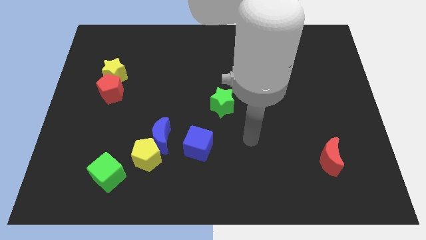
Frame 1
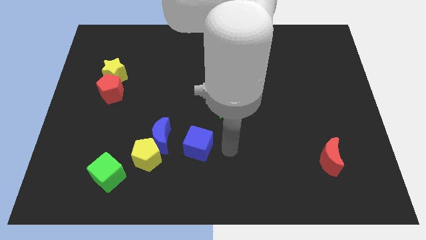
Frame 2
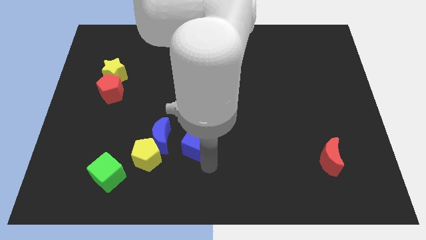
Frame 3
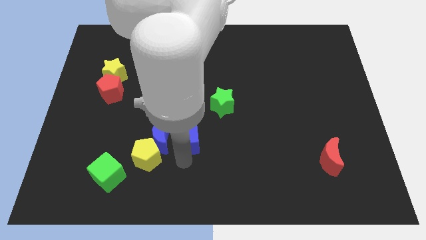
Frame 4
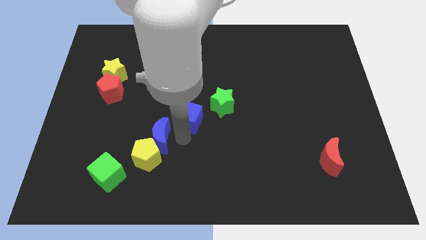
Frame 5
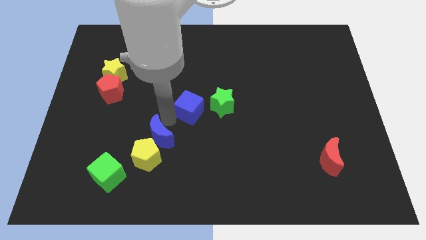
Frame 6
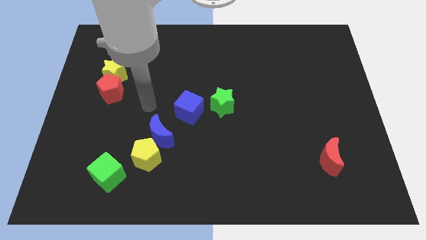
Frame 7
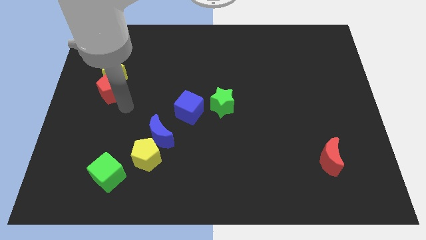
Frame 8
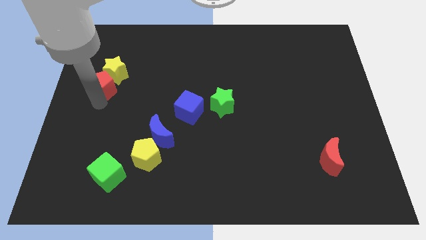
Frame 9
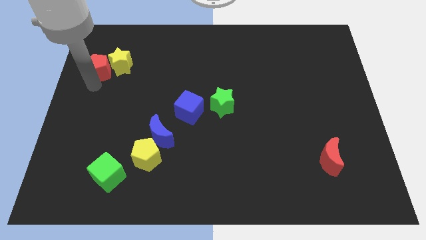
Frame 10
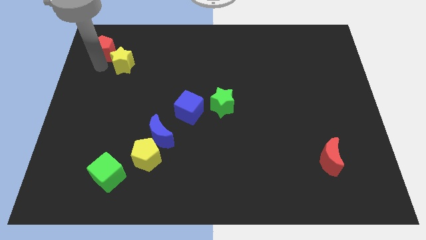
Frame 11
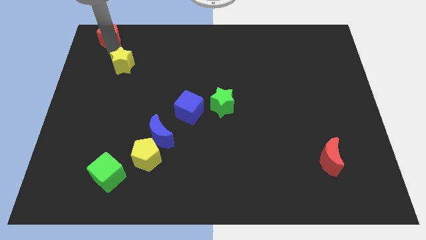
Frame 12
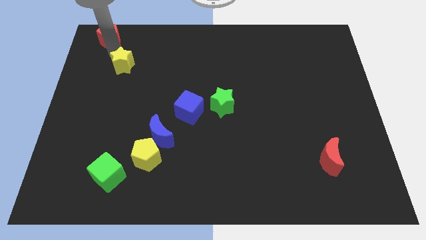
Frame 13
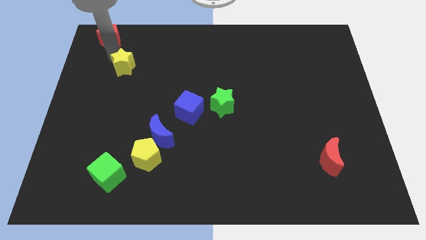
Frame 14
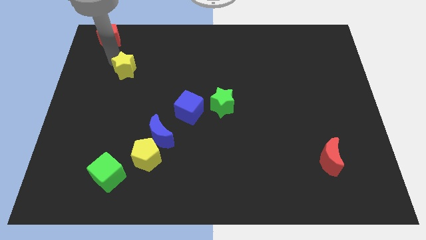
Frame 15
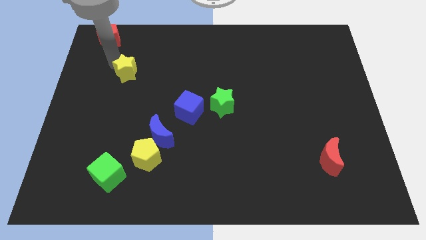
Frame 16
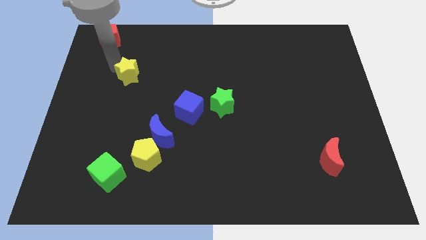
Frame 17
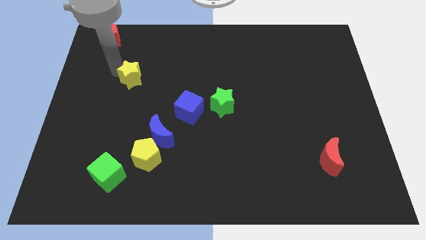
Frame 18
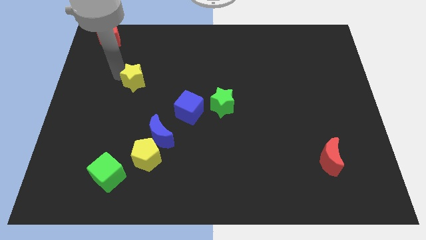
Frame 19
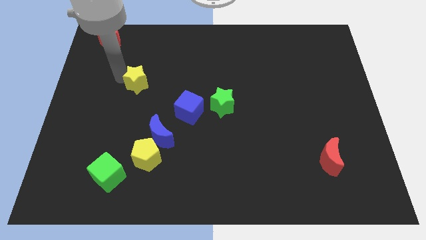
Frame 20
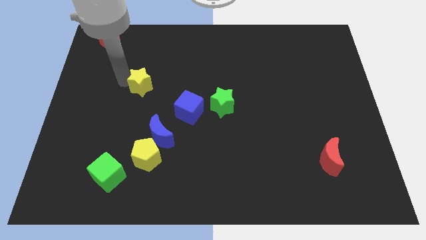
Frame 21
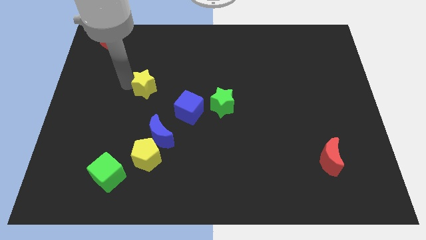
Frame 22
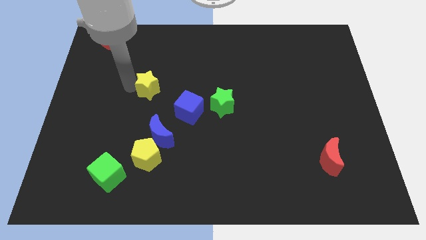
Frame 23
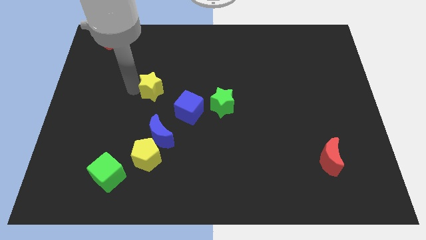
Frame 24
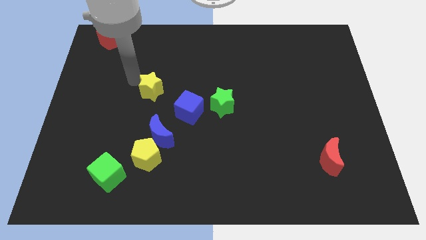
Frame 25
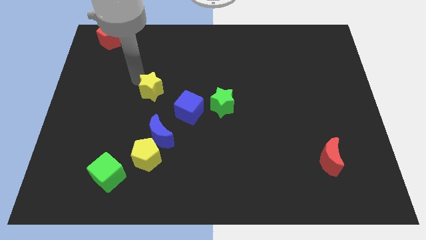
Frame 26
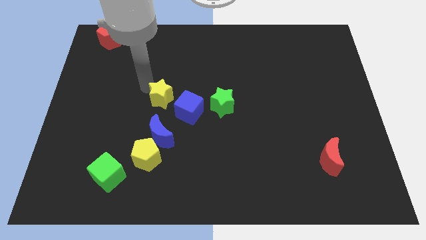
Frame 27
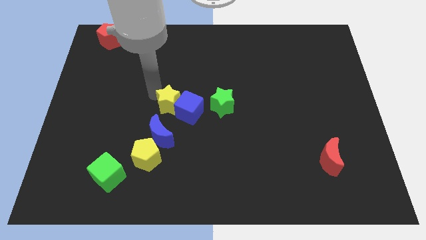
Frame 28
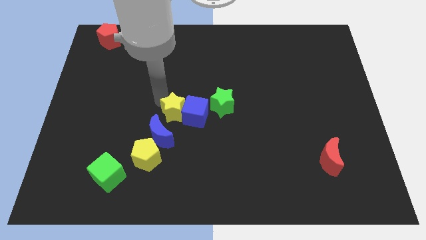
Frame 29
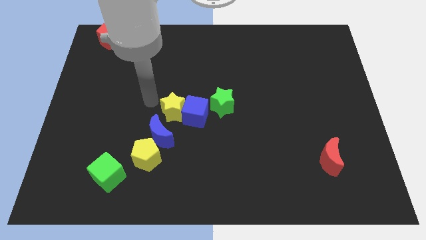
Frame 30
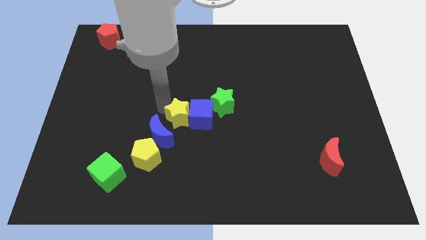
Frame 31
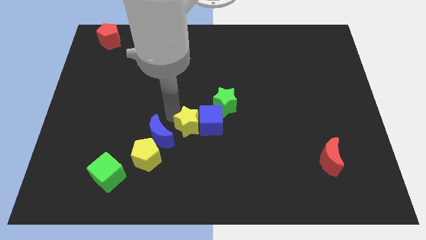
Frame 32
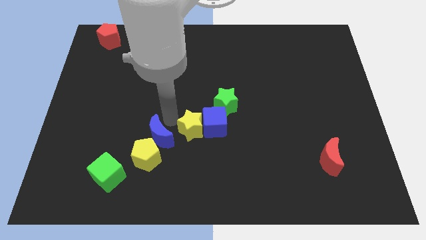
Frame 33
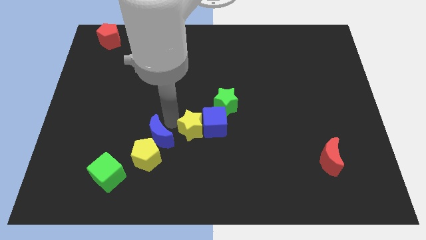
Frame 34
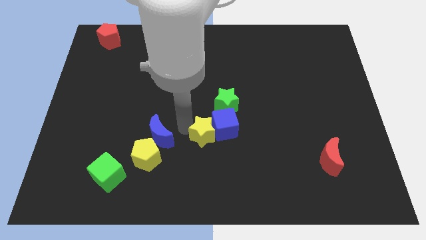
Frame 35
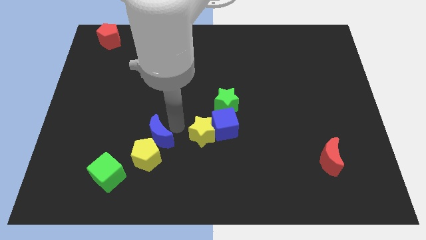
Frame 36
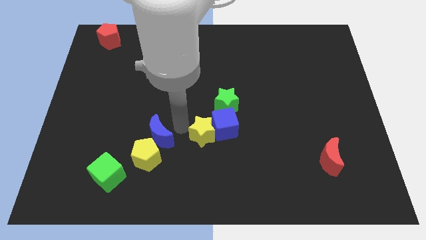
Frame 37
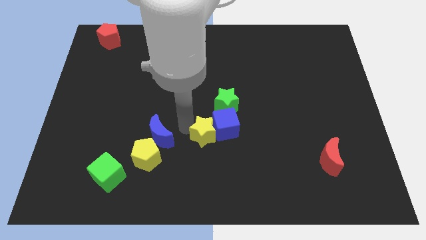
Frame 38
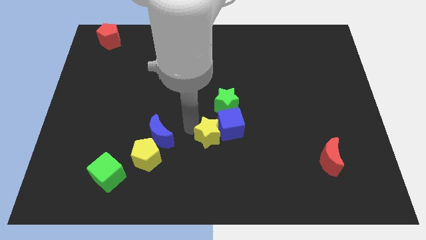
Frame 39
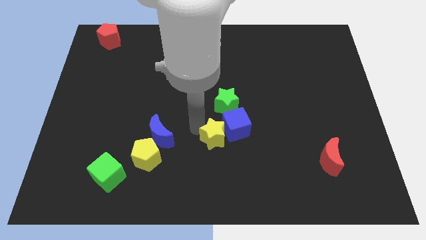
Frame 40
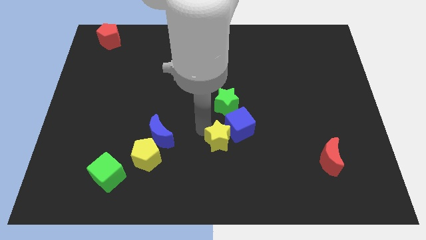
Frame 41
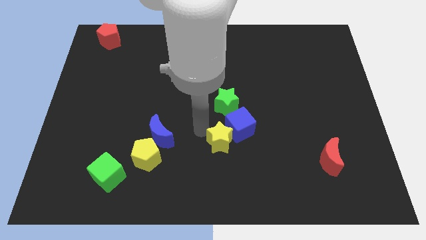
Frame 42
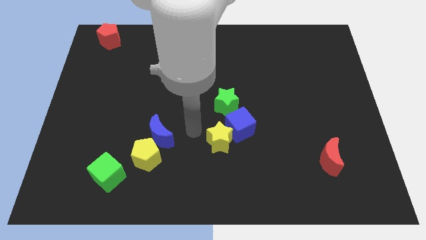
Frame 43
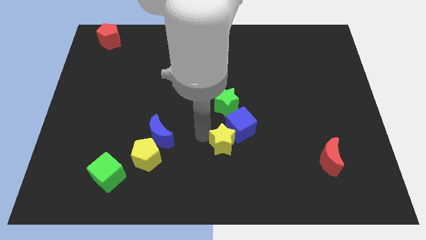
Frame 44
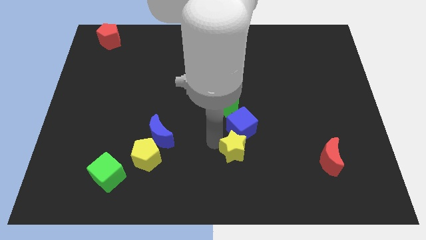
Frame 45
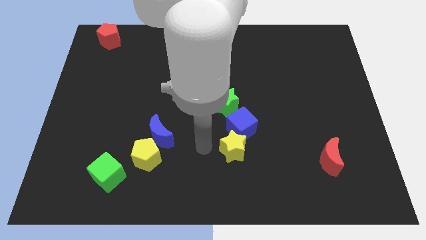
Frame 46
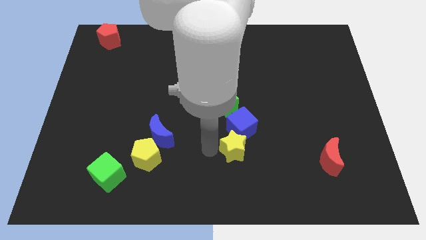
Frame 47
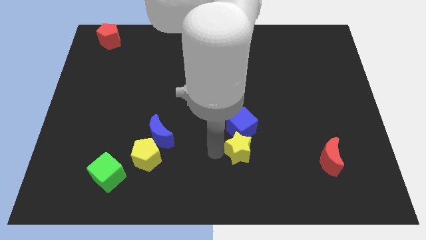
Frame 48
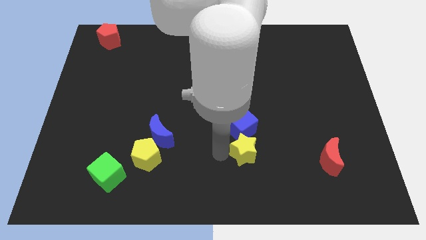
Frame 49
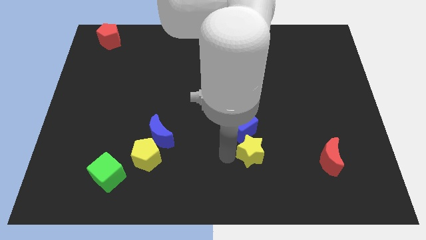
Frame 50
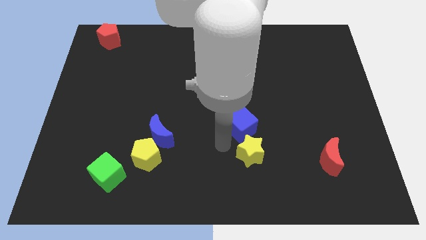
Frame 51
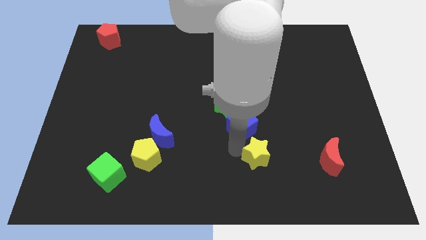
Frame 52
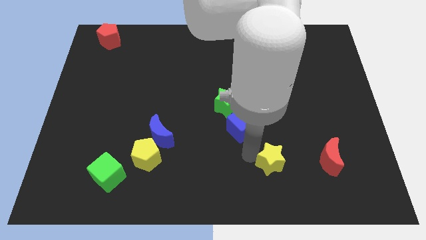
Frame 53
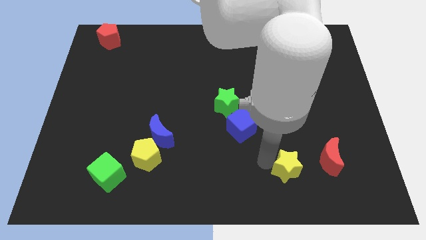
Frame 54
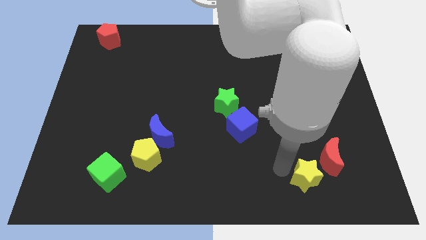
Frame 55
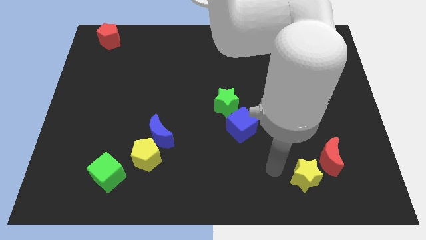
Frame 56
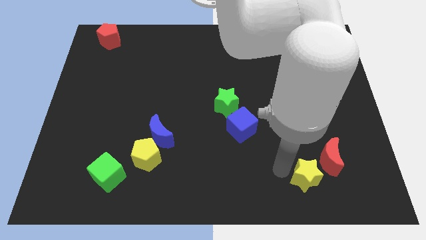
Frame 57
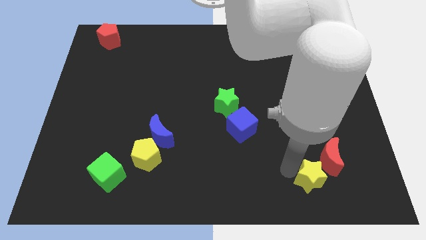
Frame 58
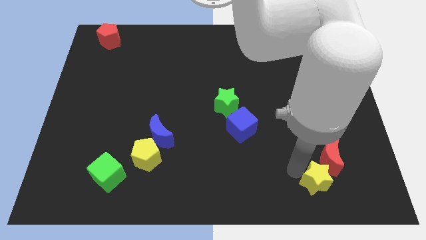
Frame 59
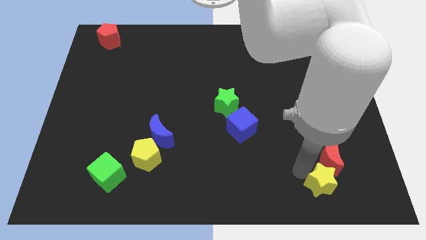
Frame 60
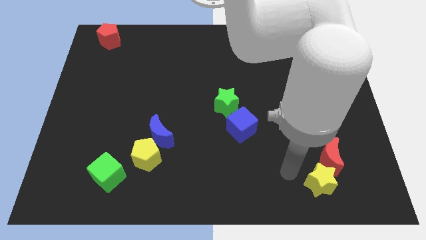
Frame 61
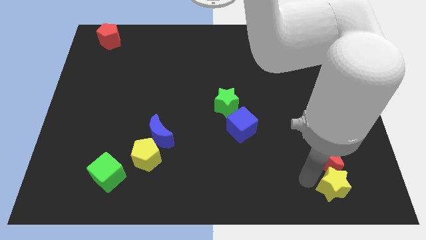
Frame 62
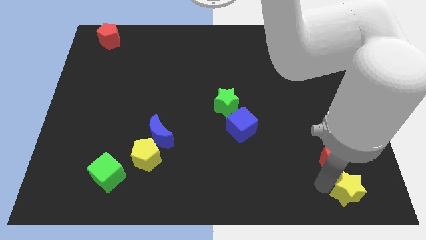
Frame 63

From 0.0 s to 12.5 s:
put the yellow star to the lower right corner
